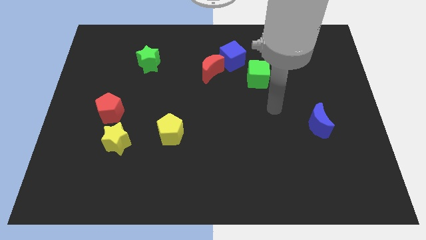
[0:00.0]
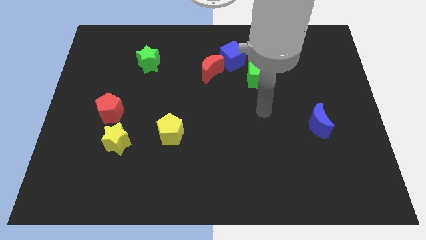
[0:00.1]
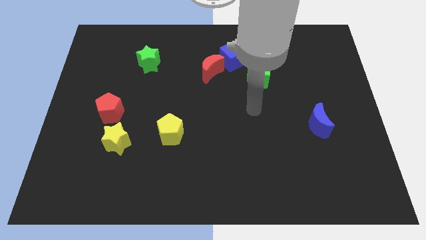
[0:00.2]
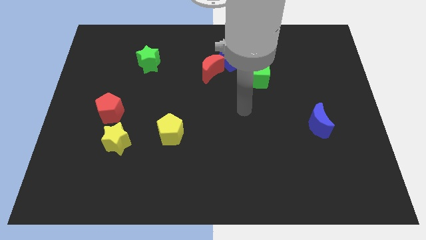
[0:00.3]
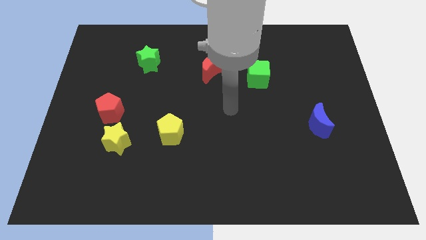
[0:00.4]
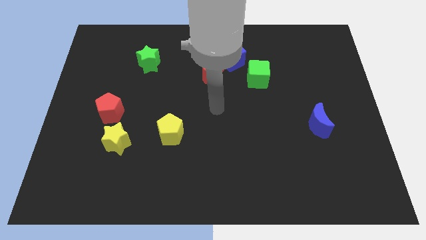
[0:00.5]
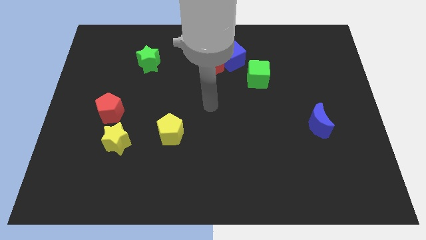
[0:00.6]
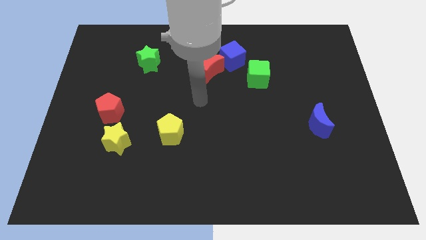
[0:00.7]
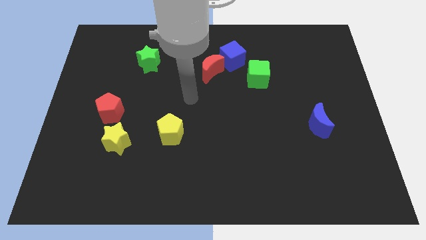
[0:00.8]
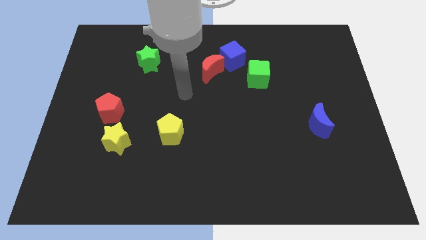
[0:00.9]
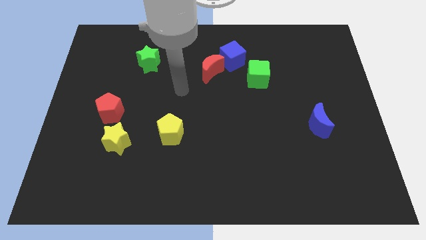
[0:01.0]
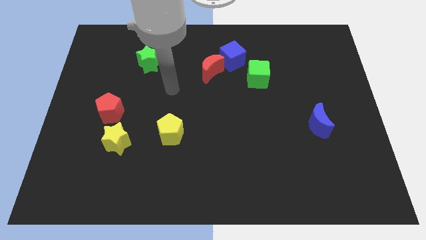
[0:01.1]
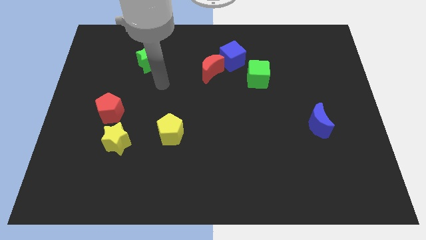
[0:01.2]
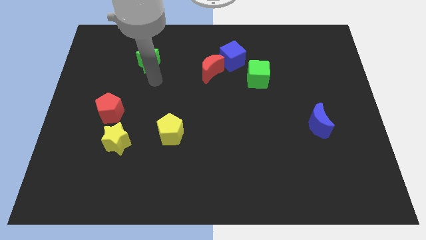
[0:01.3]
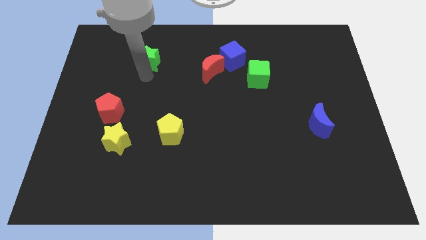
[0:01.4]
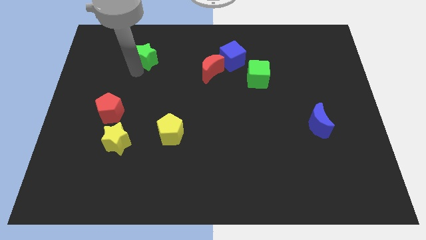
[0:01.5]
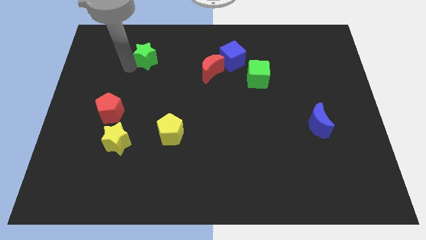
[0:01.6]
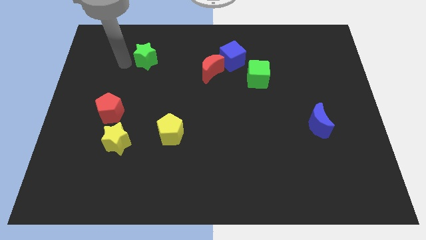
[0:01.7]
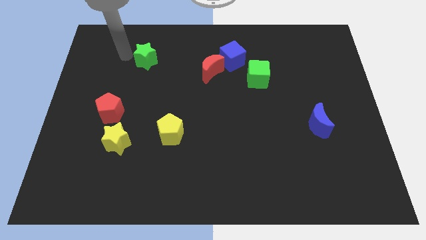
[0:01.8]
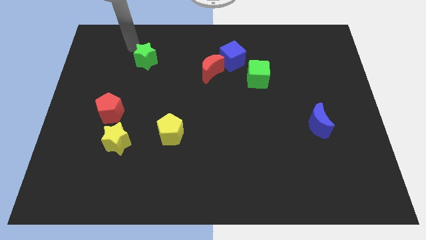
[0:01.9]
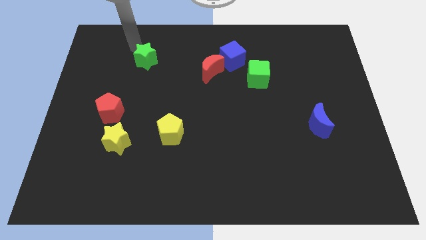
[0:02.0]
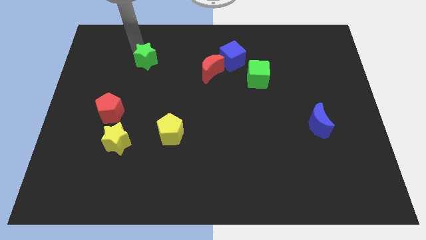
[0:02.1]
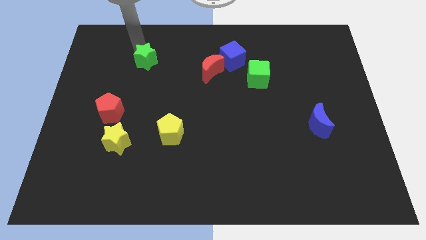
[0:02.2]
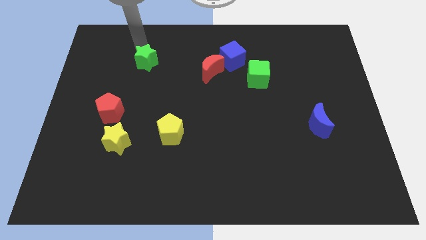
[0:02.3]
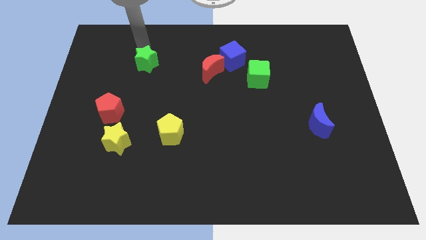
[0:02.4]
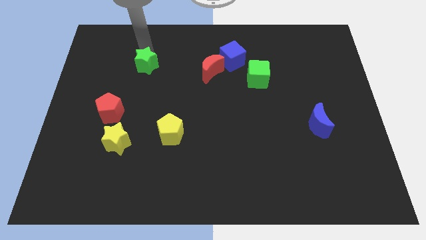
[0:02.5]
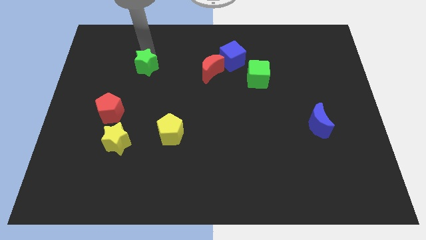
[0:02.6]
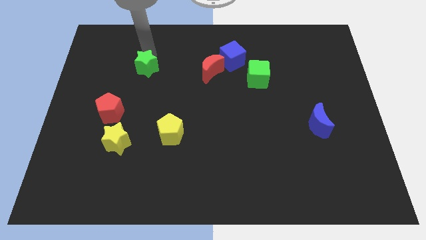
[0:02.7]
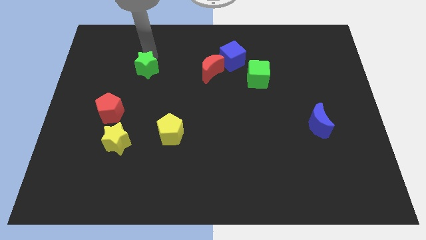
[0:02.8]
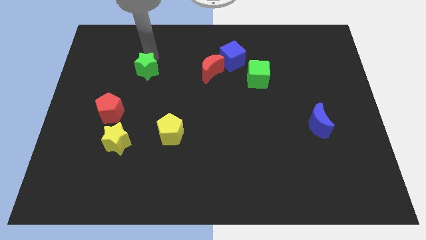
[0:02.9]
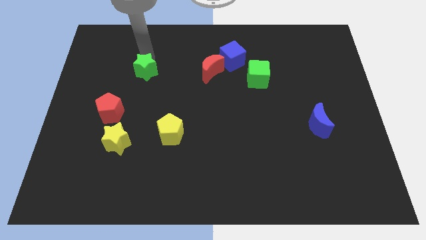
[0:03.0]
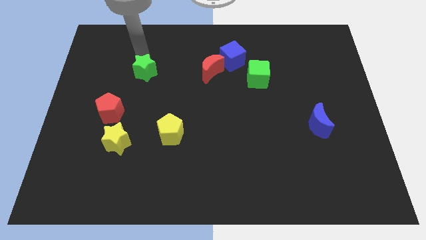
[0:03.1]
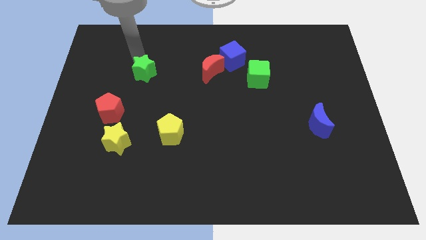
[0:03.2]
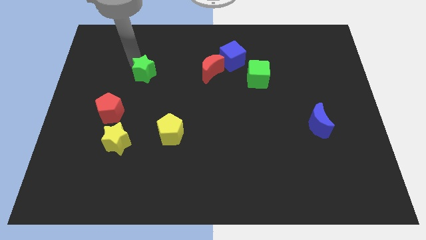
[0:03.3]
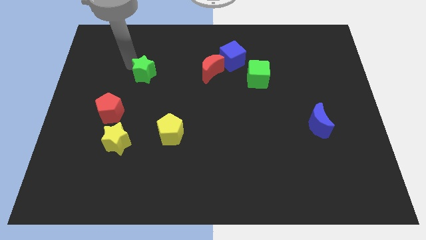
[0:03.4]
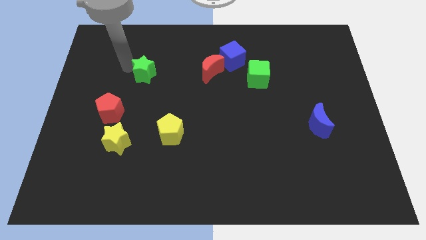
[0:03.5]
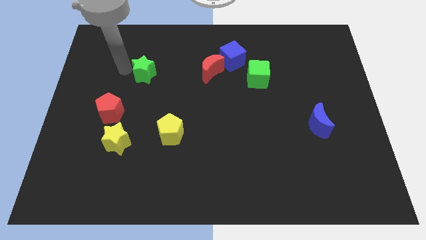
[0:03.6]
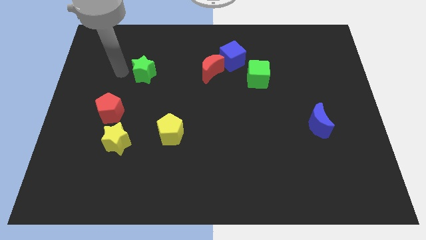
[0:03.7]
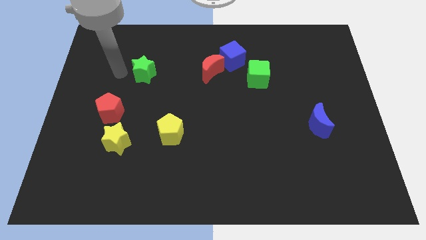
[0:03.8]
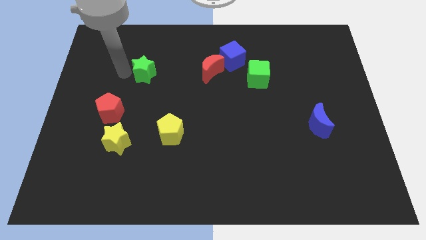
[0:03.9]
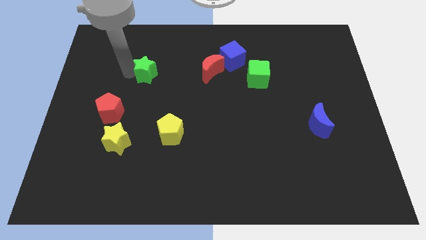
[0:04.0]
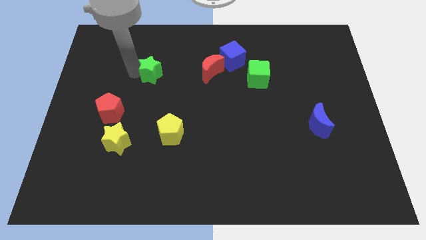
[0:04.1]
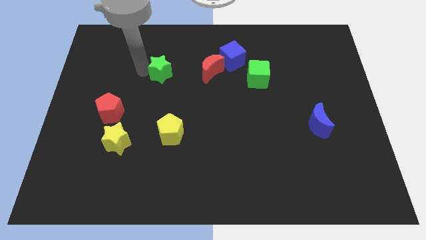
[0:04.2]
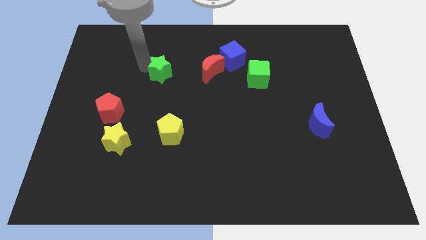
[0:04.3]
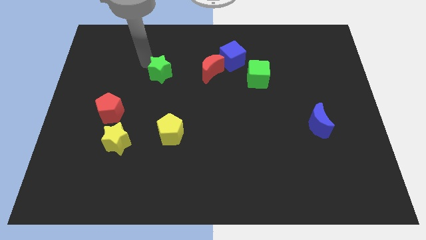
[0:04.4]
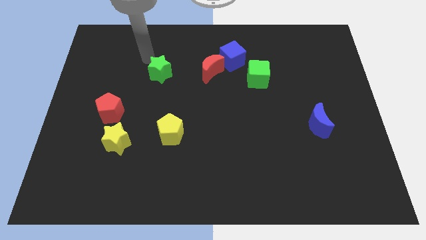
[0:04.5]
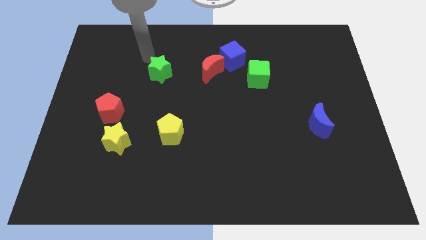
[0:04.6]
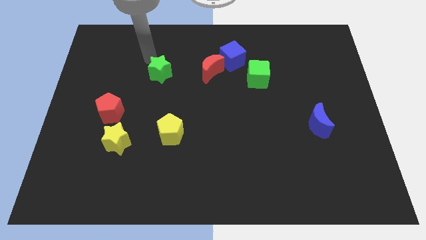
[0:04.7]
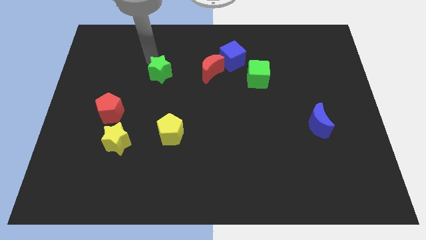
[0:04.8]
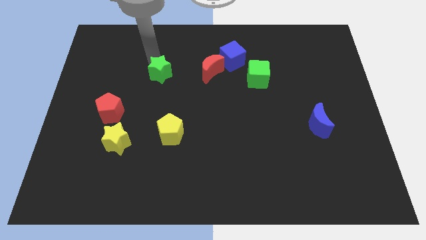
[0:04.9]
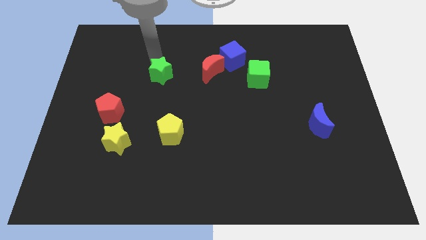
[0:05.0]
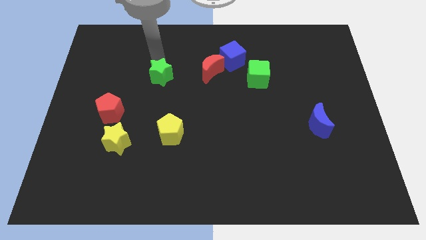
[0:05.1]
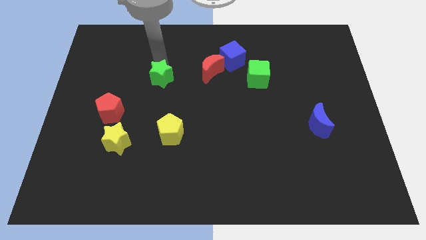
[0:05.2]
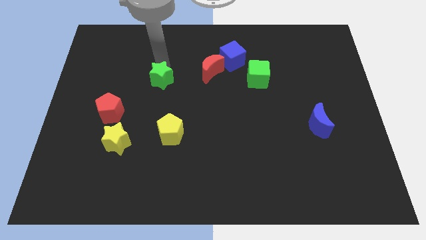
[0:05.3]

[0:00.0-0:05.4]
push the green star downwards and right a little

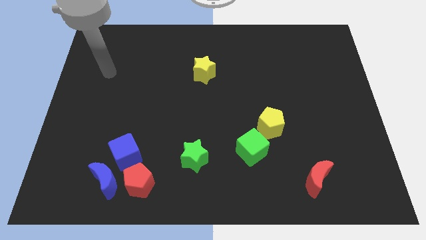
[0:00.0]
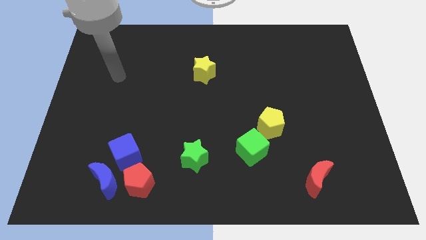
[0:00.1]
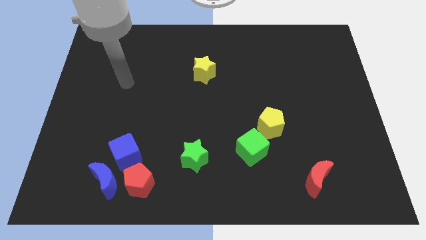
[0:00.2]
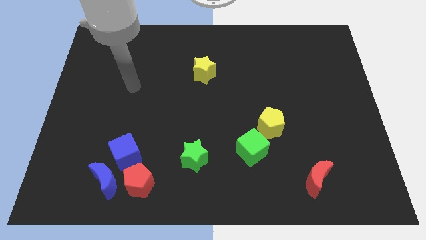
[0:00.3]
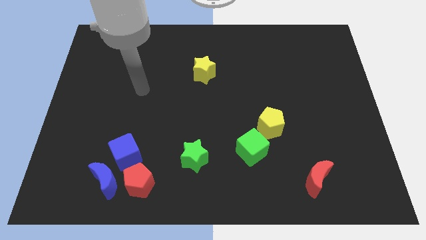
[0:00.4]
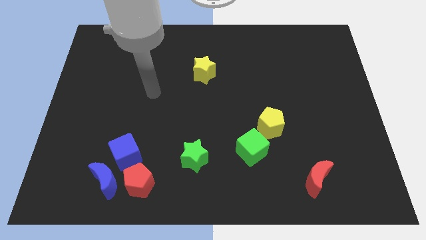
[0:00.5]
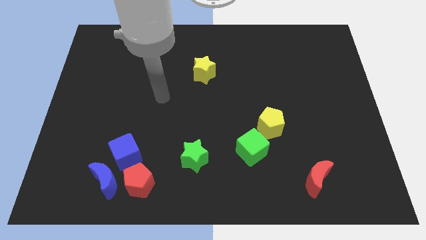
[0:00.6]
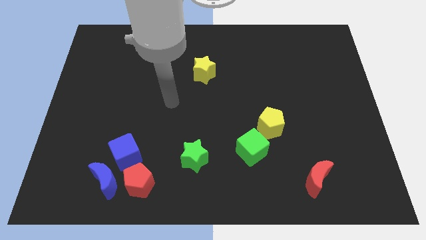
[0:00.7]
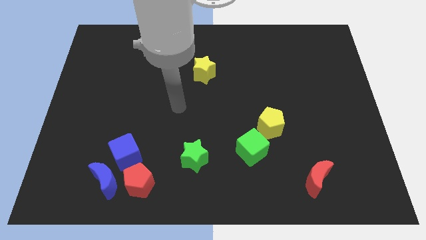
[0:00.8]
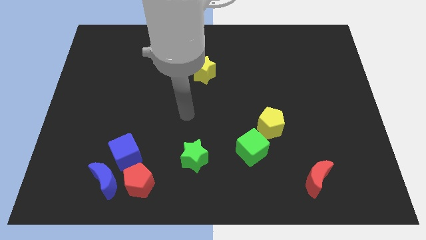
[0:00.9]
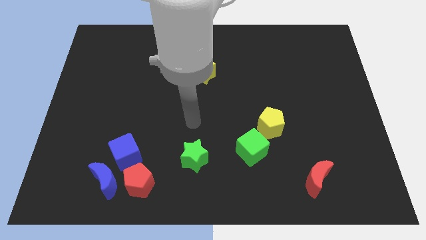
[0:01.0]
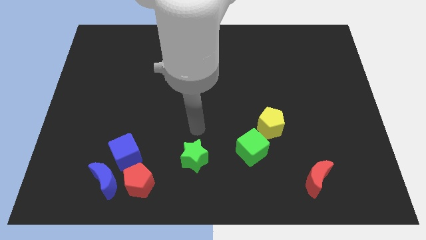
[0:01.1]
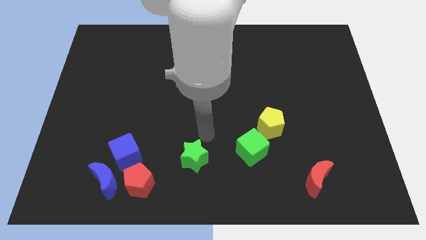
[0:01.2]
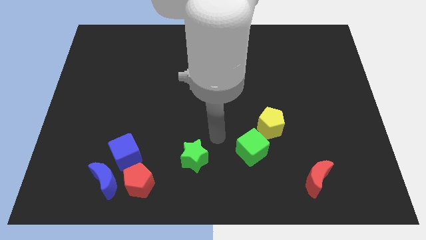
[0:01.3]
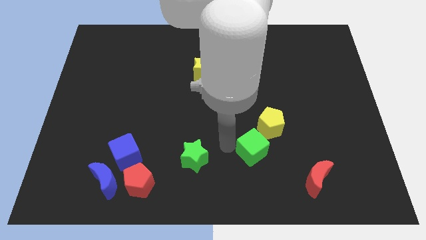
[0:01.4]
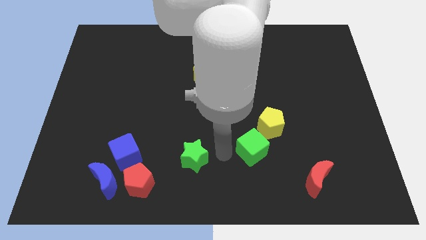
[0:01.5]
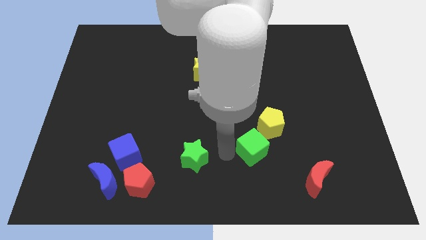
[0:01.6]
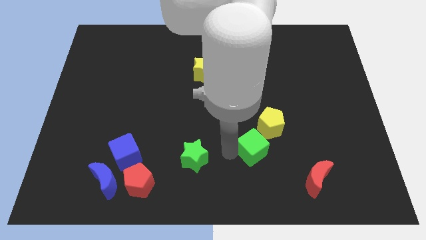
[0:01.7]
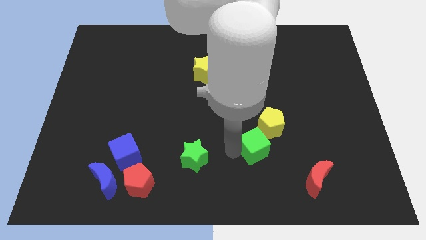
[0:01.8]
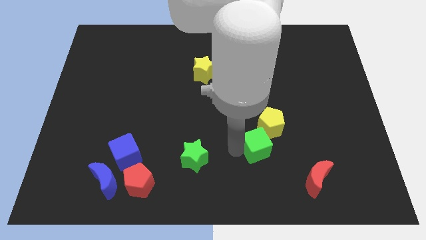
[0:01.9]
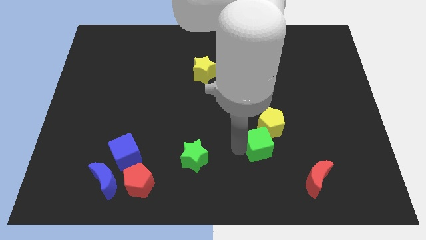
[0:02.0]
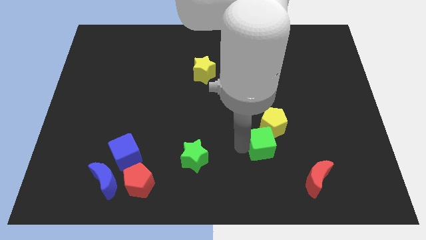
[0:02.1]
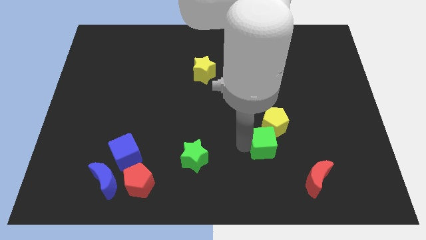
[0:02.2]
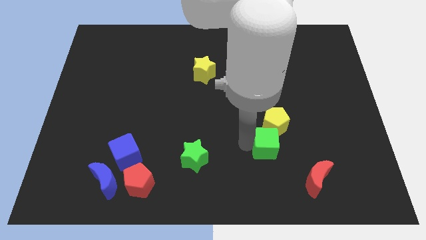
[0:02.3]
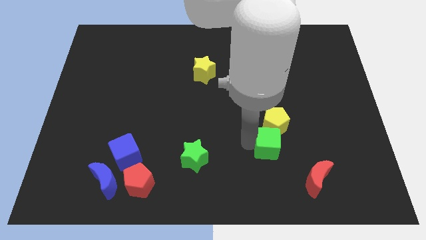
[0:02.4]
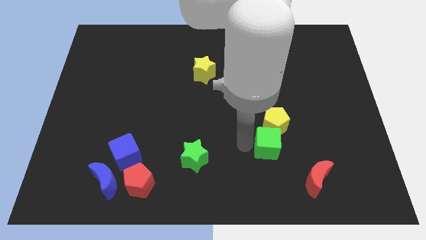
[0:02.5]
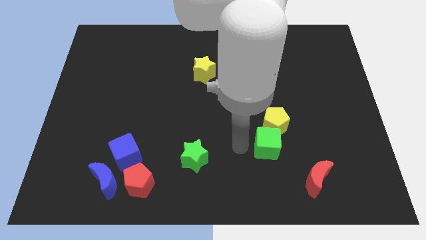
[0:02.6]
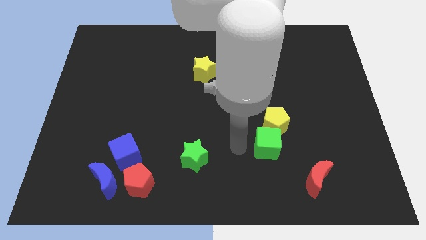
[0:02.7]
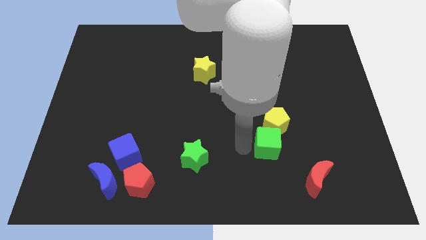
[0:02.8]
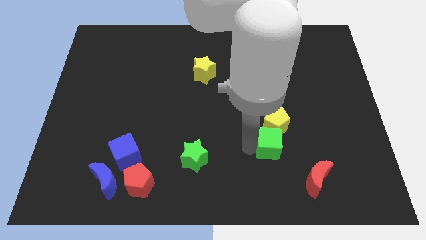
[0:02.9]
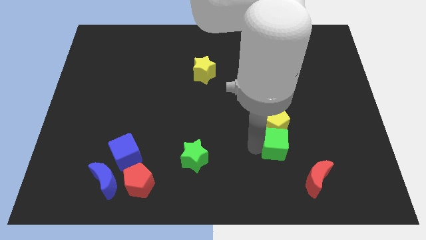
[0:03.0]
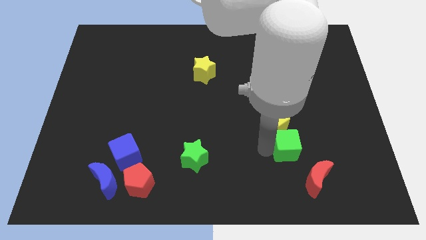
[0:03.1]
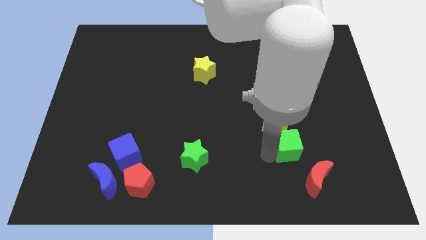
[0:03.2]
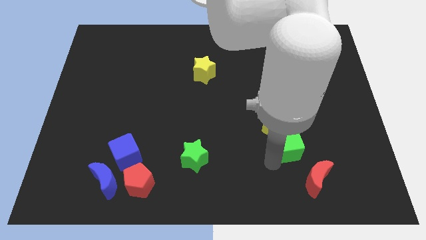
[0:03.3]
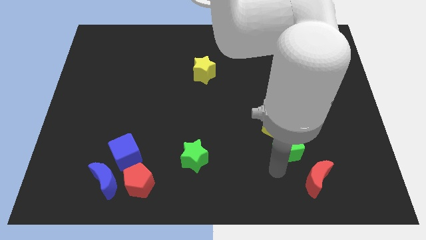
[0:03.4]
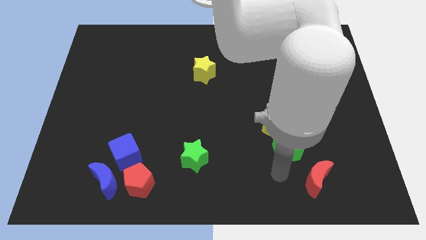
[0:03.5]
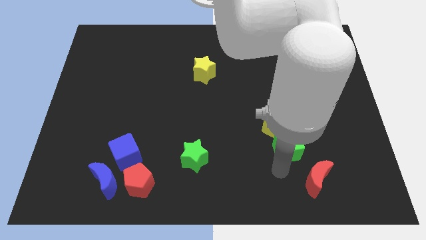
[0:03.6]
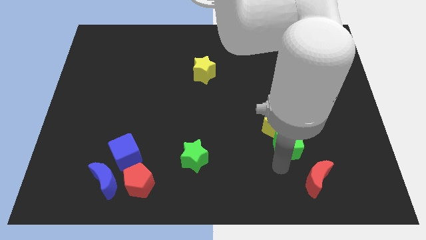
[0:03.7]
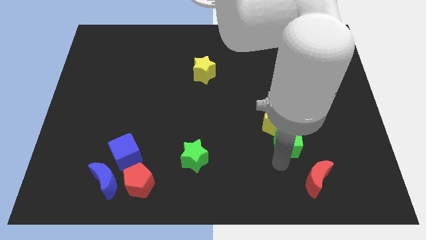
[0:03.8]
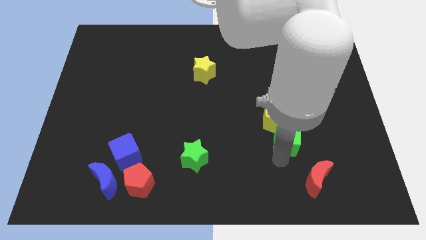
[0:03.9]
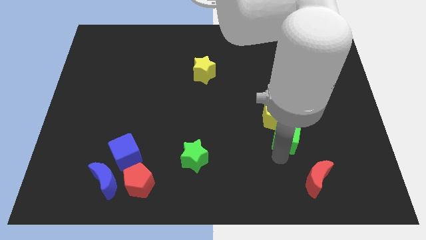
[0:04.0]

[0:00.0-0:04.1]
slide the green cube slightly up and right
